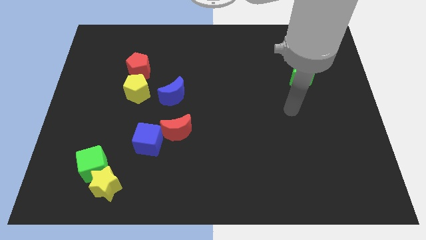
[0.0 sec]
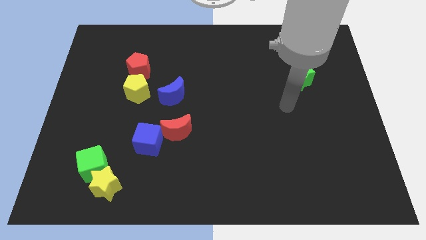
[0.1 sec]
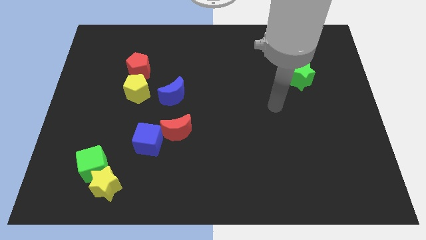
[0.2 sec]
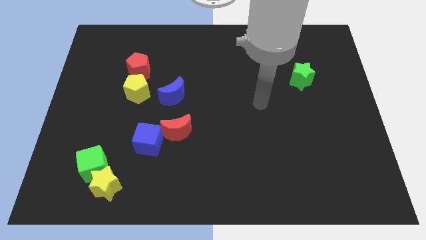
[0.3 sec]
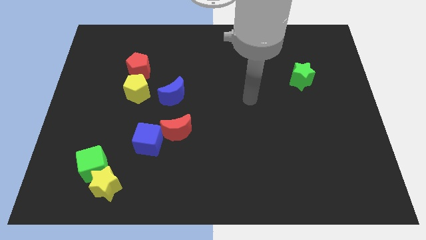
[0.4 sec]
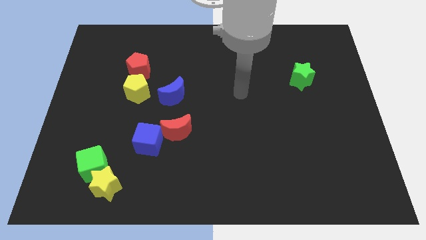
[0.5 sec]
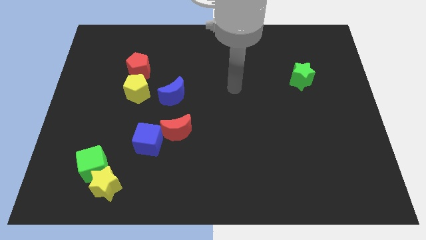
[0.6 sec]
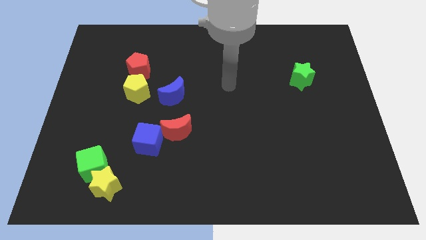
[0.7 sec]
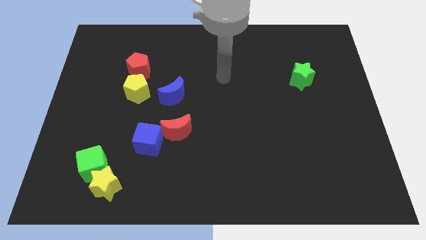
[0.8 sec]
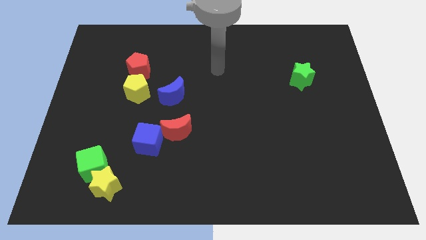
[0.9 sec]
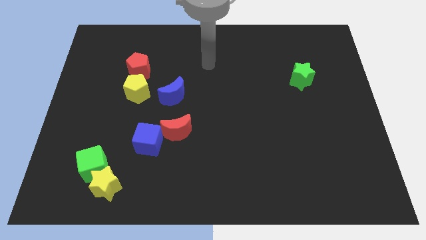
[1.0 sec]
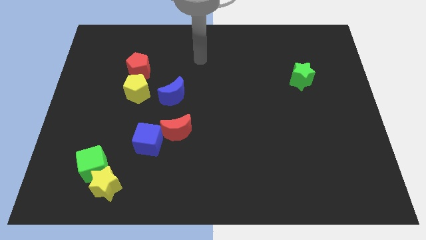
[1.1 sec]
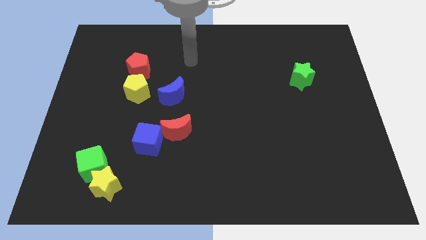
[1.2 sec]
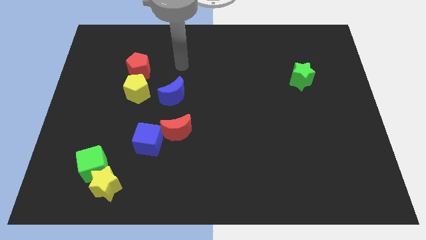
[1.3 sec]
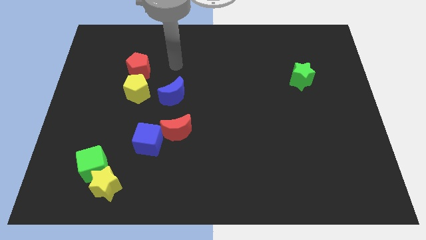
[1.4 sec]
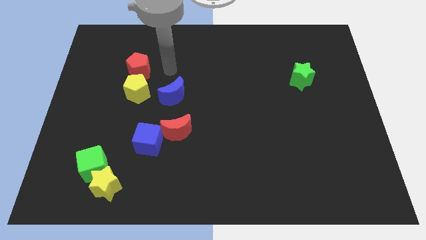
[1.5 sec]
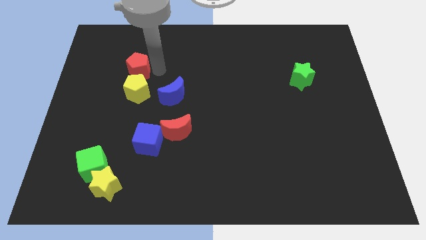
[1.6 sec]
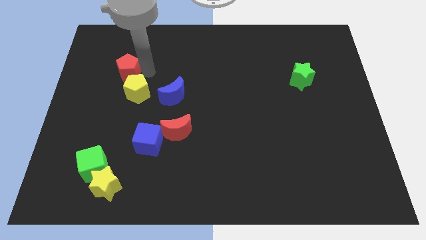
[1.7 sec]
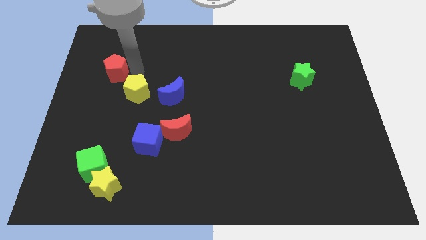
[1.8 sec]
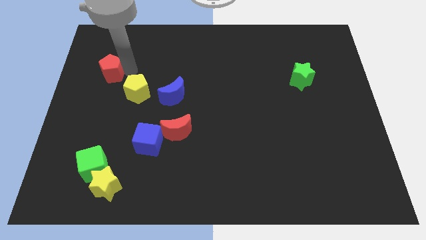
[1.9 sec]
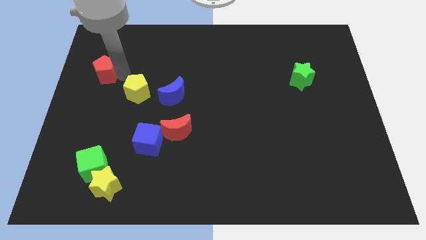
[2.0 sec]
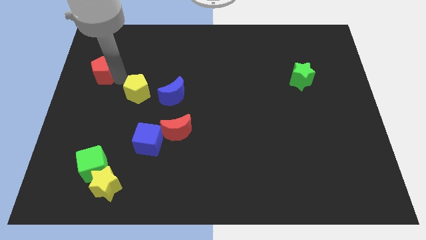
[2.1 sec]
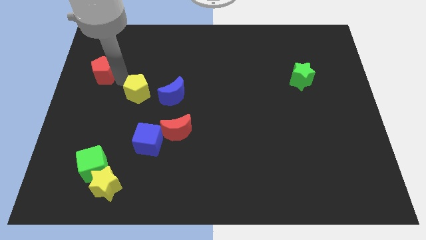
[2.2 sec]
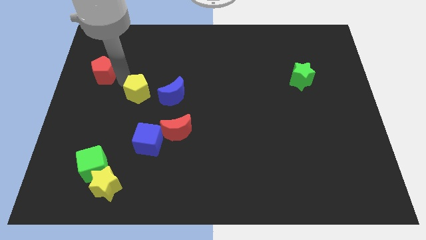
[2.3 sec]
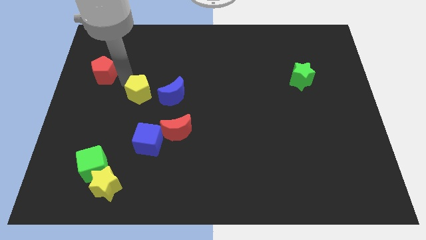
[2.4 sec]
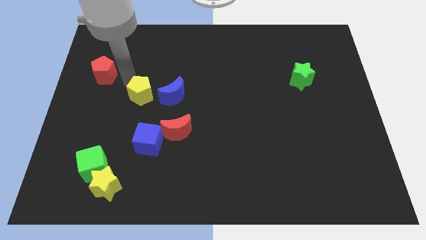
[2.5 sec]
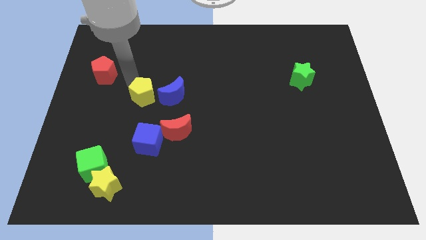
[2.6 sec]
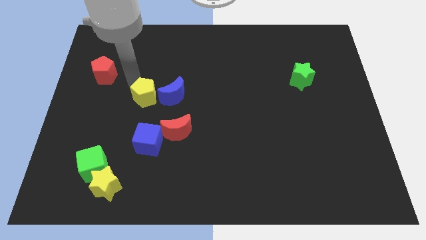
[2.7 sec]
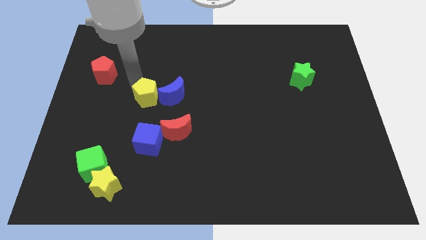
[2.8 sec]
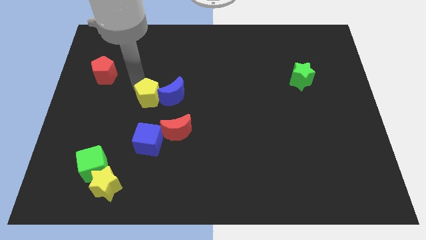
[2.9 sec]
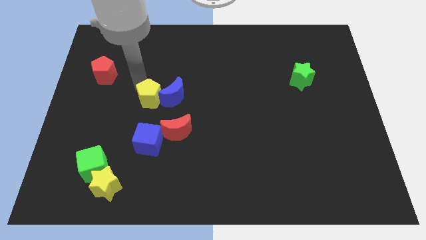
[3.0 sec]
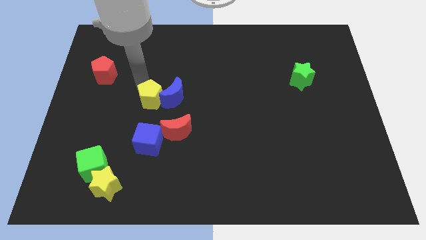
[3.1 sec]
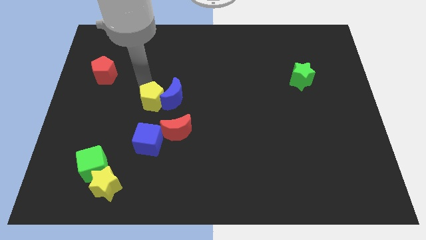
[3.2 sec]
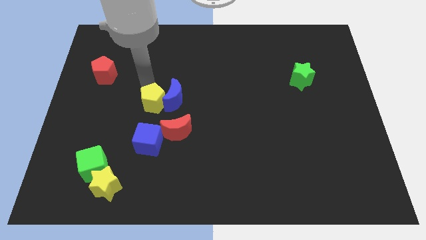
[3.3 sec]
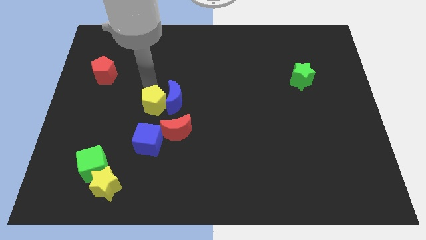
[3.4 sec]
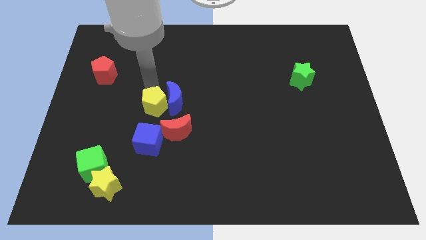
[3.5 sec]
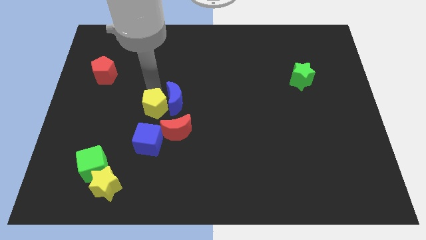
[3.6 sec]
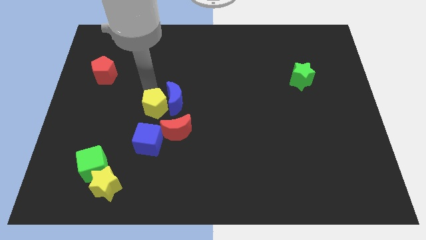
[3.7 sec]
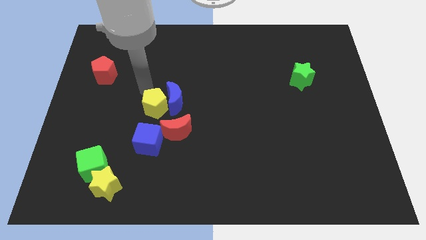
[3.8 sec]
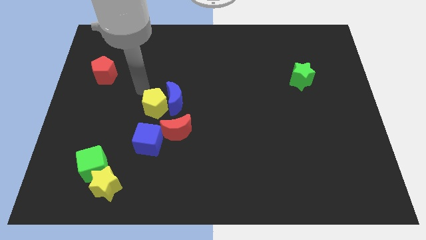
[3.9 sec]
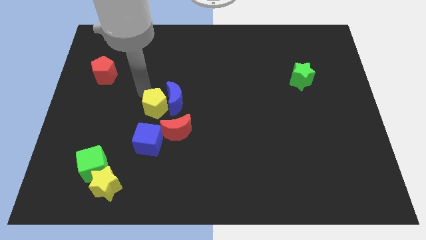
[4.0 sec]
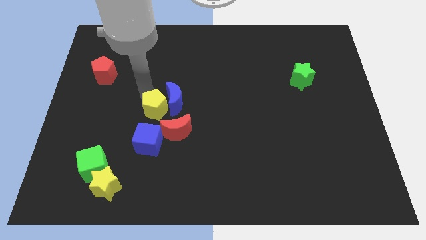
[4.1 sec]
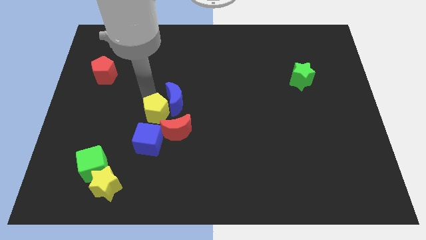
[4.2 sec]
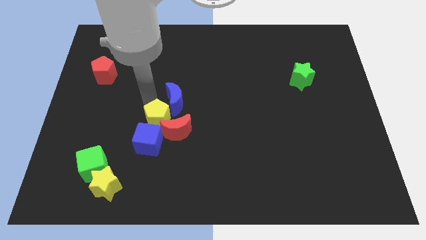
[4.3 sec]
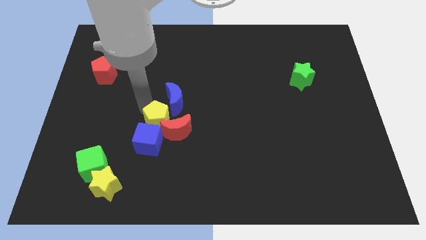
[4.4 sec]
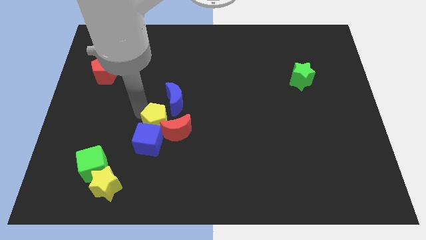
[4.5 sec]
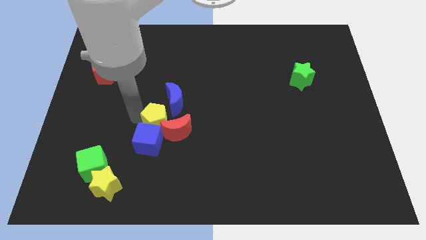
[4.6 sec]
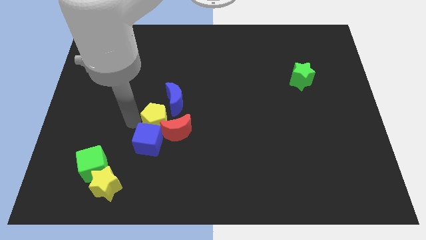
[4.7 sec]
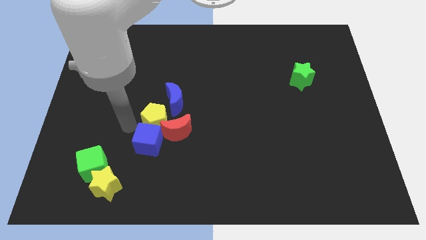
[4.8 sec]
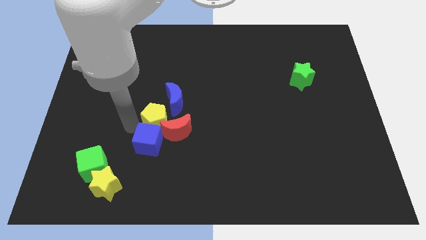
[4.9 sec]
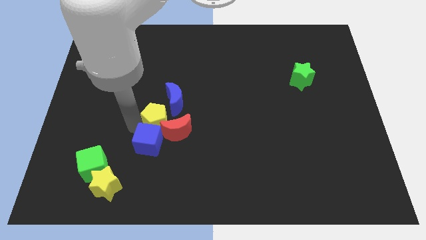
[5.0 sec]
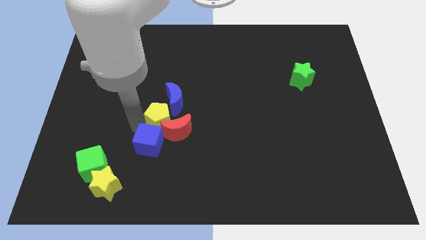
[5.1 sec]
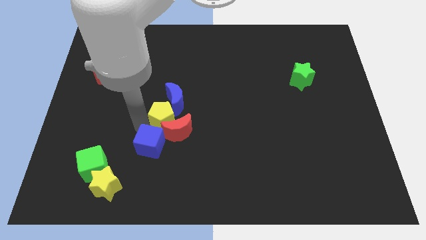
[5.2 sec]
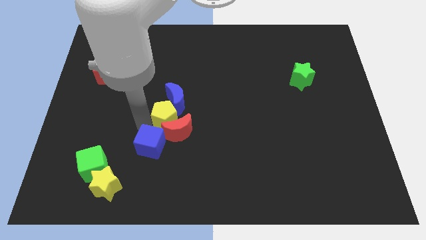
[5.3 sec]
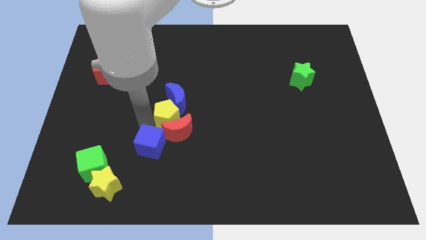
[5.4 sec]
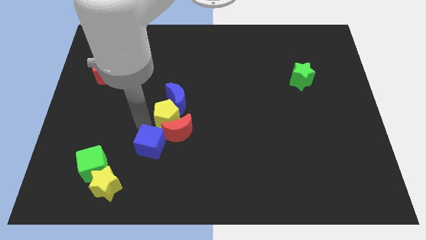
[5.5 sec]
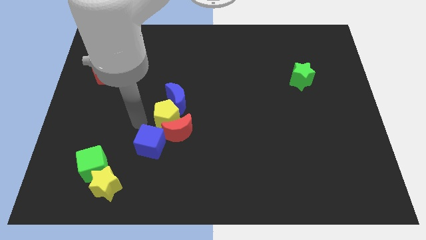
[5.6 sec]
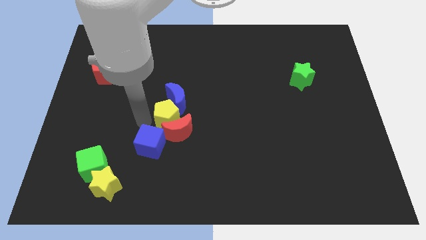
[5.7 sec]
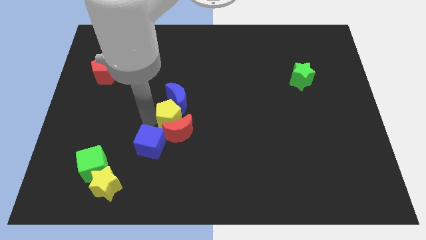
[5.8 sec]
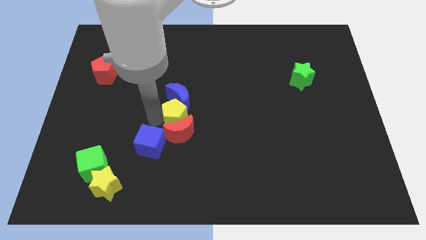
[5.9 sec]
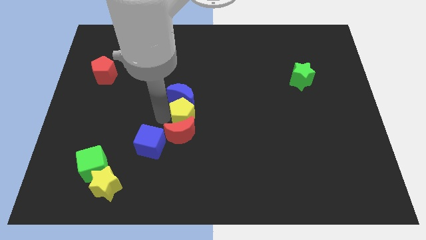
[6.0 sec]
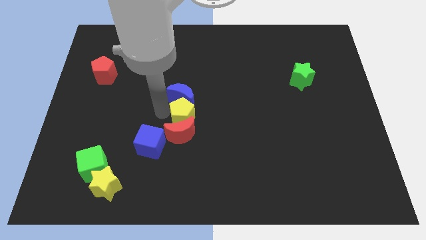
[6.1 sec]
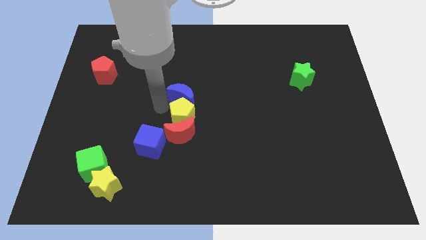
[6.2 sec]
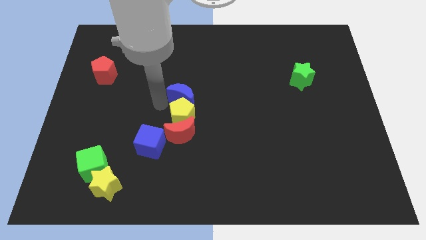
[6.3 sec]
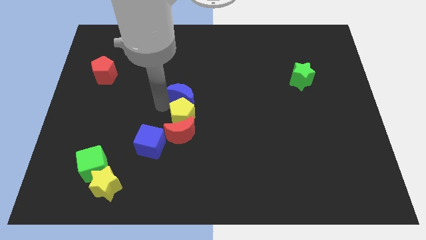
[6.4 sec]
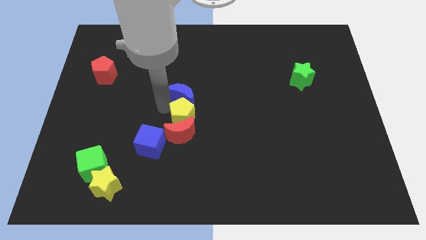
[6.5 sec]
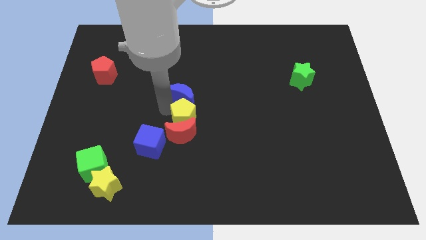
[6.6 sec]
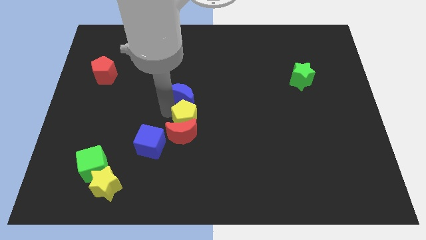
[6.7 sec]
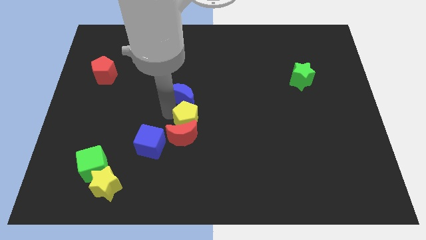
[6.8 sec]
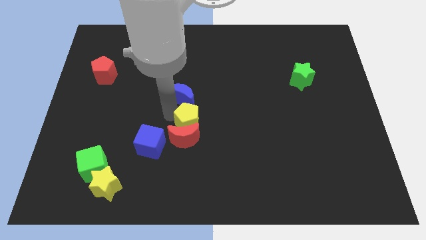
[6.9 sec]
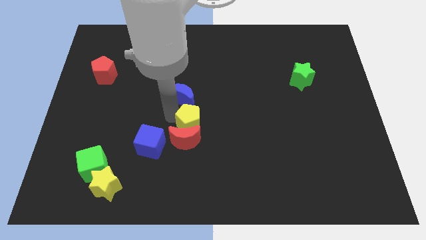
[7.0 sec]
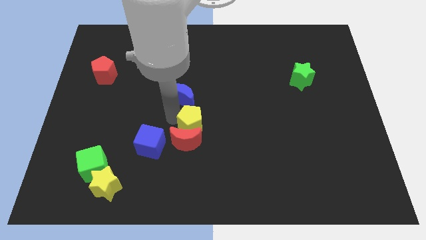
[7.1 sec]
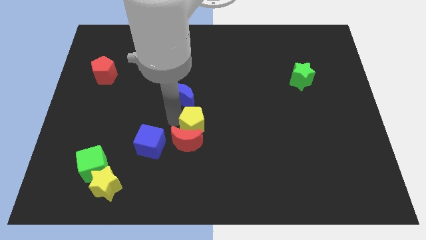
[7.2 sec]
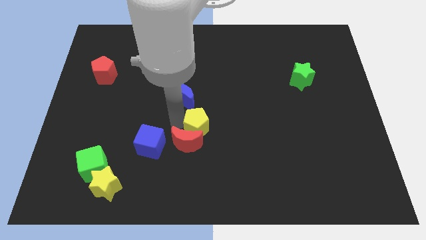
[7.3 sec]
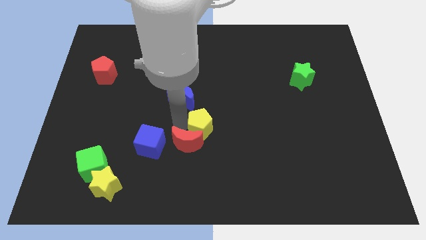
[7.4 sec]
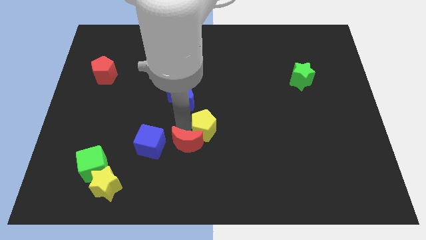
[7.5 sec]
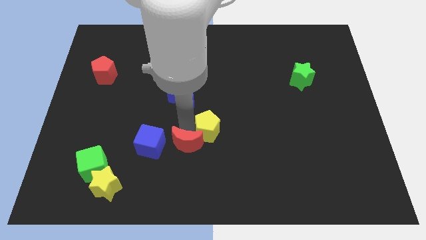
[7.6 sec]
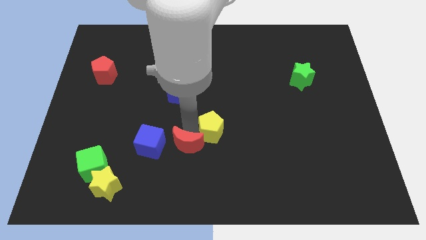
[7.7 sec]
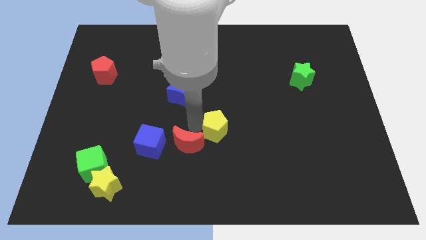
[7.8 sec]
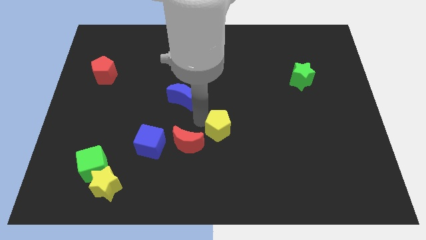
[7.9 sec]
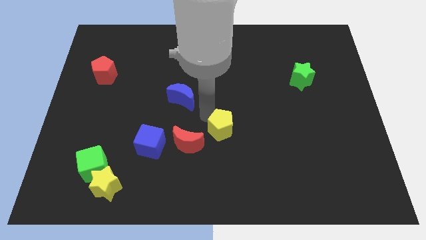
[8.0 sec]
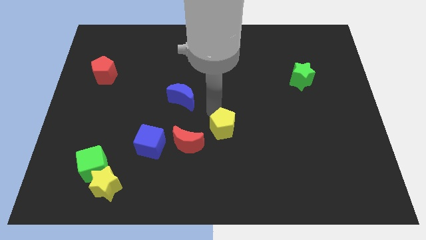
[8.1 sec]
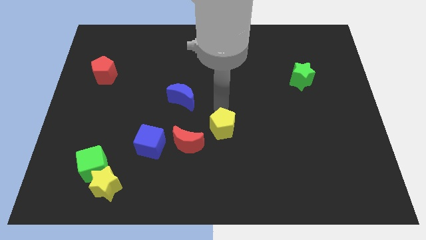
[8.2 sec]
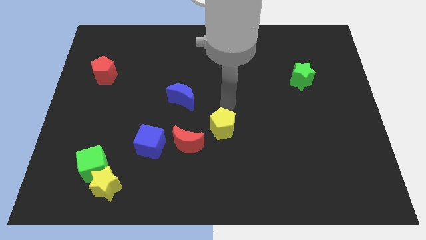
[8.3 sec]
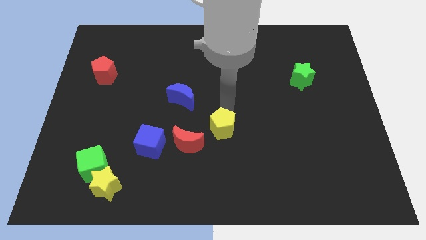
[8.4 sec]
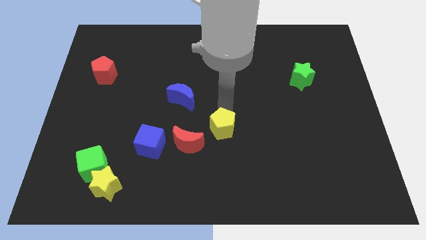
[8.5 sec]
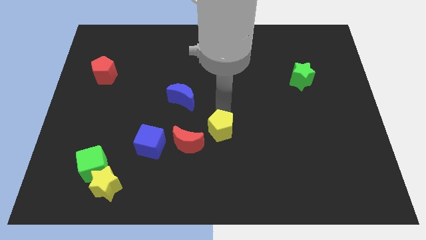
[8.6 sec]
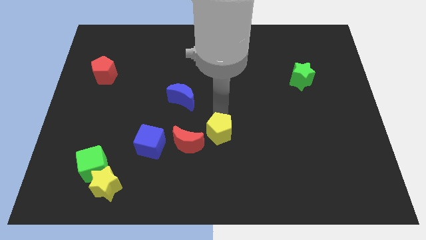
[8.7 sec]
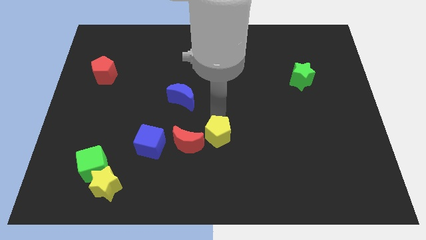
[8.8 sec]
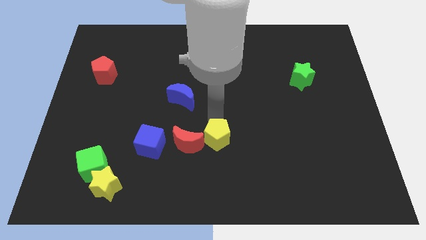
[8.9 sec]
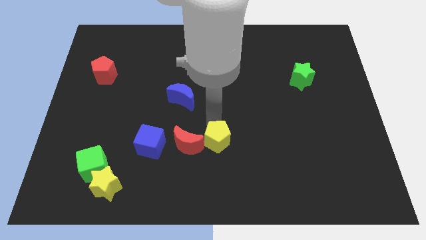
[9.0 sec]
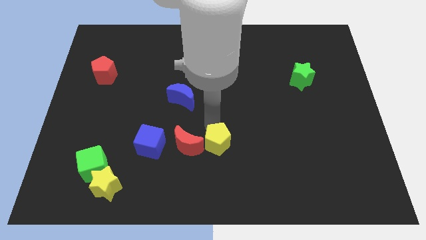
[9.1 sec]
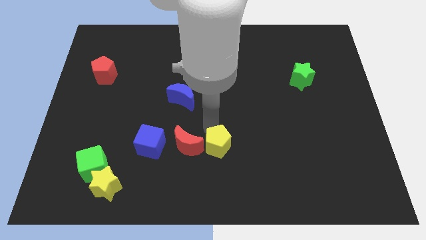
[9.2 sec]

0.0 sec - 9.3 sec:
slide the yellow pentagon diagonally down and to the right of the red moon
